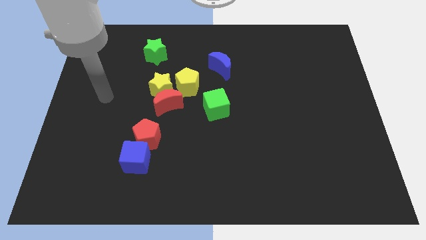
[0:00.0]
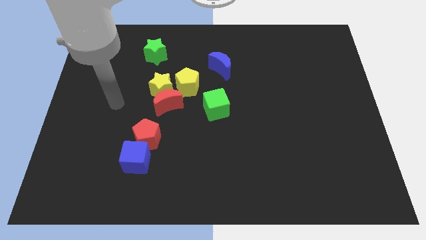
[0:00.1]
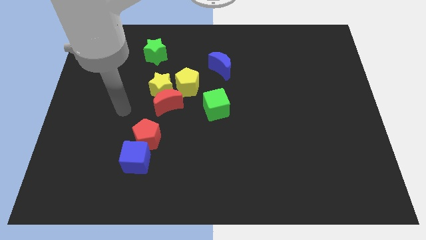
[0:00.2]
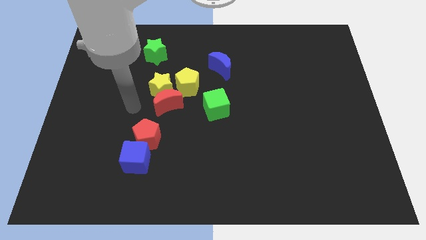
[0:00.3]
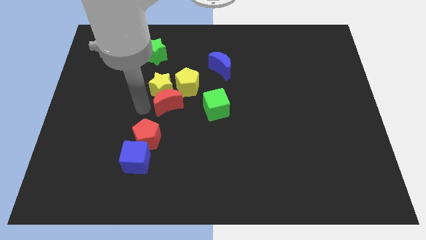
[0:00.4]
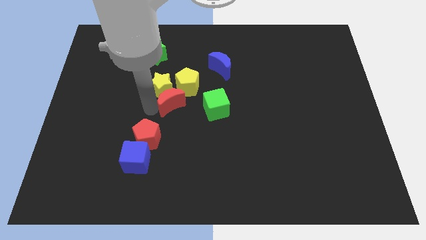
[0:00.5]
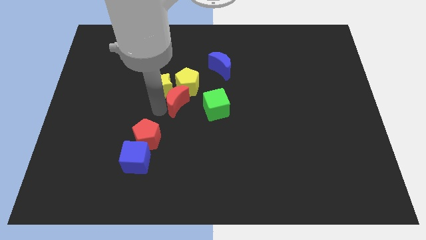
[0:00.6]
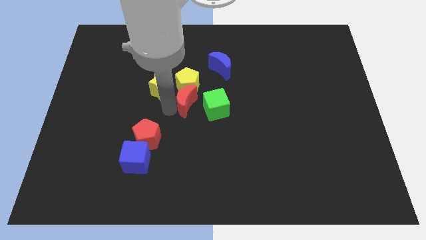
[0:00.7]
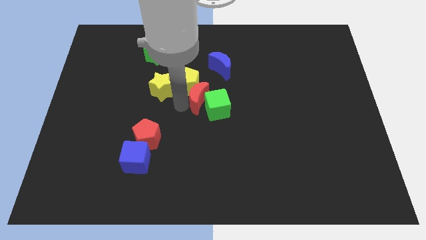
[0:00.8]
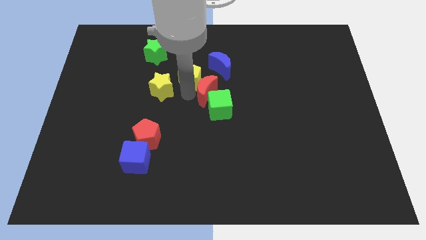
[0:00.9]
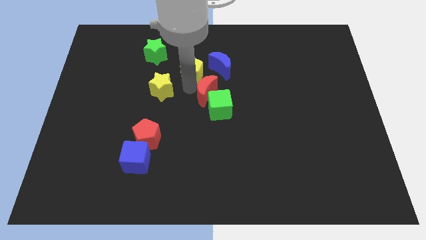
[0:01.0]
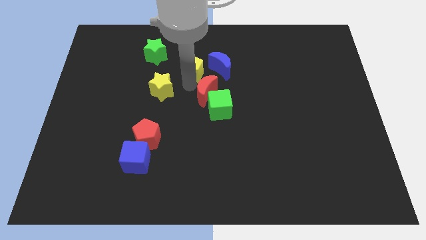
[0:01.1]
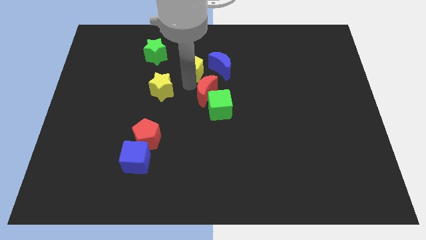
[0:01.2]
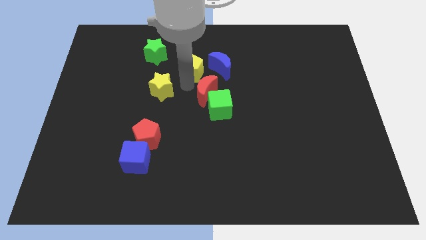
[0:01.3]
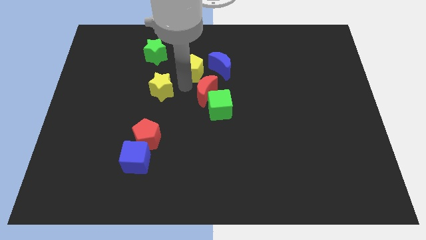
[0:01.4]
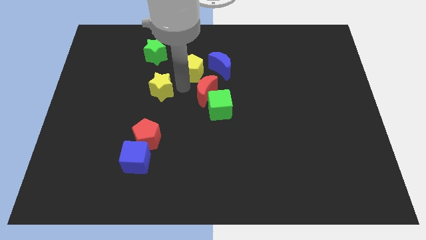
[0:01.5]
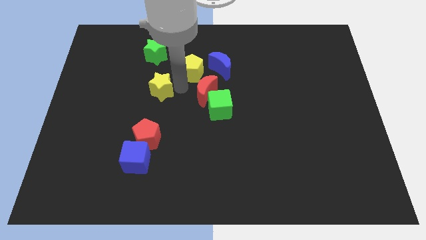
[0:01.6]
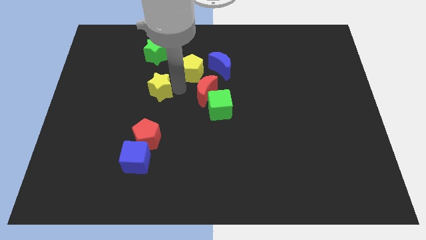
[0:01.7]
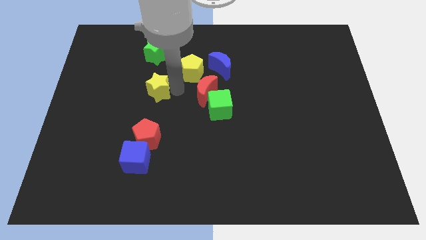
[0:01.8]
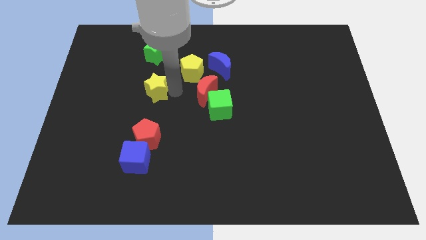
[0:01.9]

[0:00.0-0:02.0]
move the yellow star away from the red moon and yellow pentagon

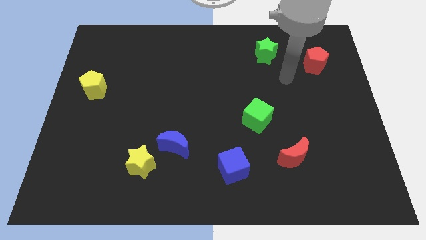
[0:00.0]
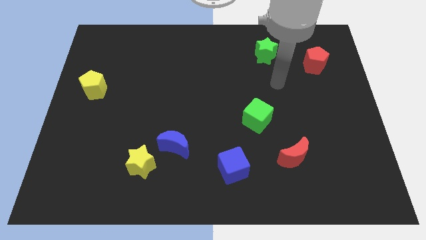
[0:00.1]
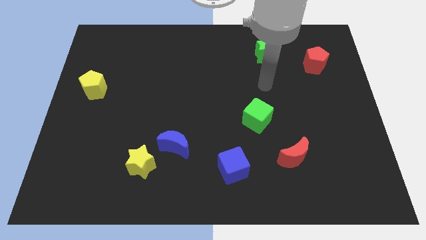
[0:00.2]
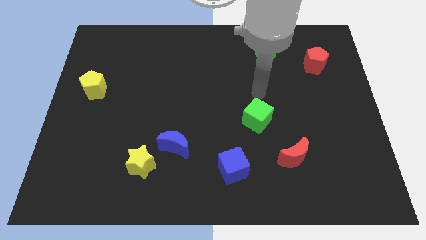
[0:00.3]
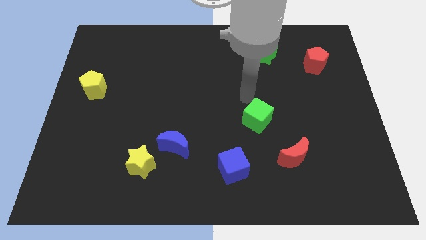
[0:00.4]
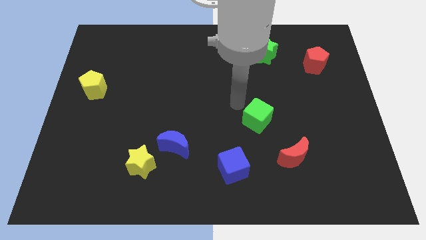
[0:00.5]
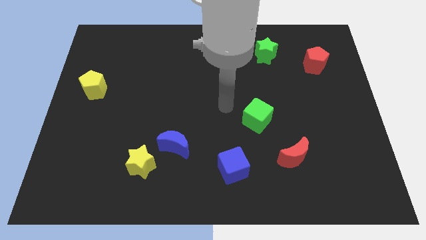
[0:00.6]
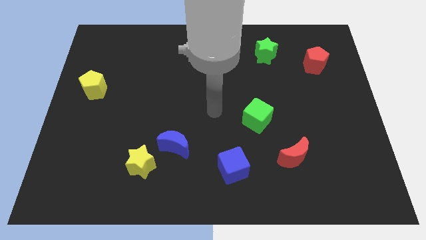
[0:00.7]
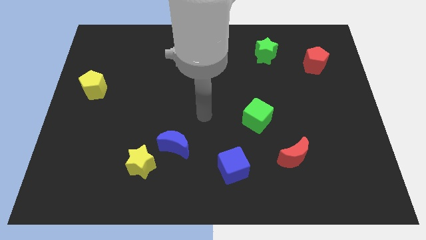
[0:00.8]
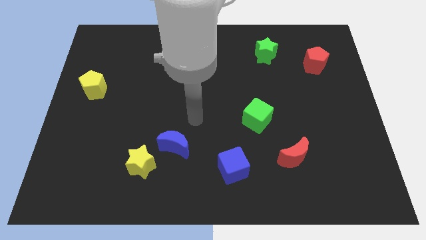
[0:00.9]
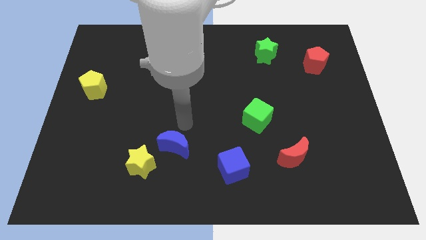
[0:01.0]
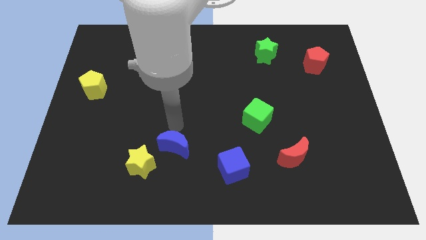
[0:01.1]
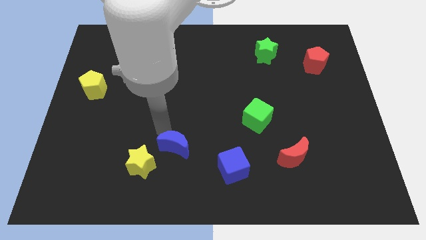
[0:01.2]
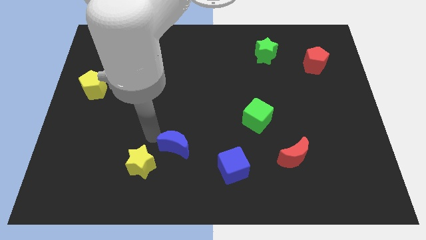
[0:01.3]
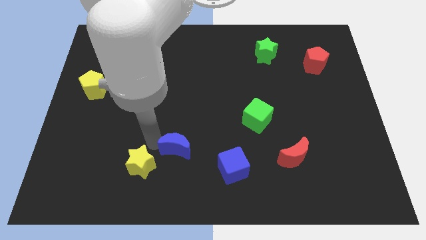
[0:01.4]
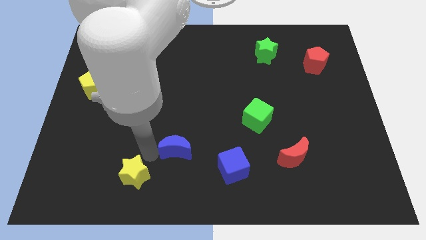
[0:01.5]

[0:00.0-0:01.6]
separate the blue moon from the yellow star

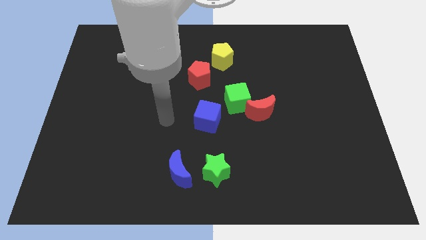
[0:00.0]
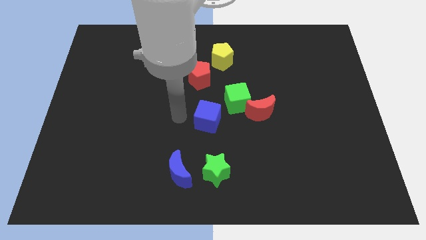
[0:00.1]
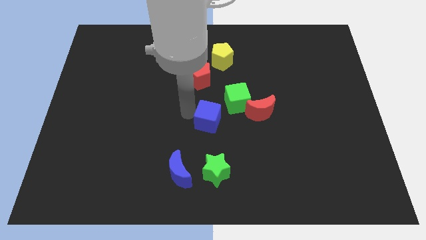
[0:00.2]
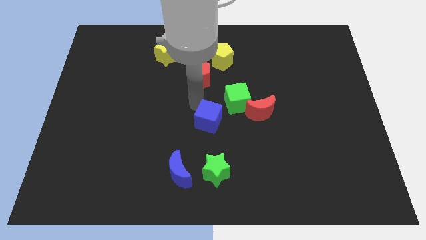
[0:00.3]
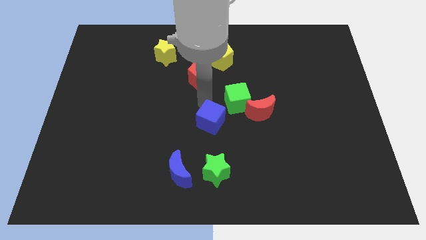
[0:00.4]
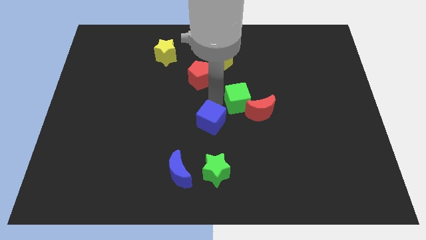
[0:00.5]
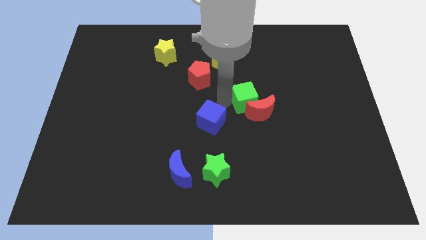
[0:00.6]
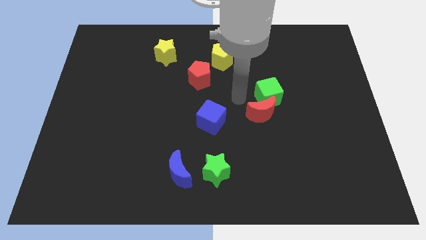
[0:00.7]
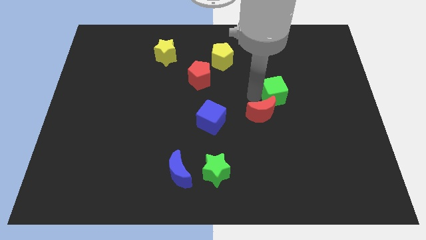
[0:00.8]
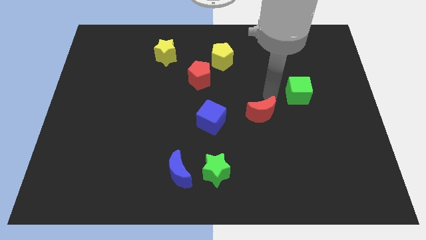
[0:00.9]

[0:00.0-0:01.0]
pull the red moon apart from the green cube

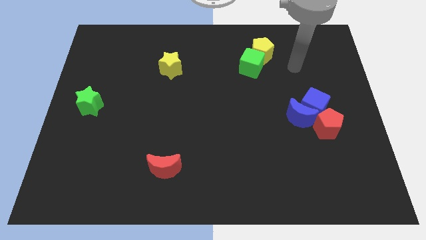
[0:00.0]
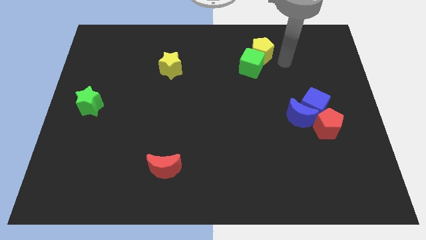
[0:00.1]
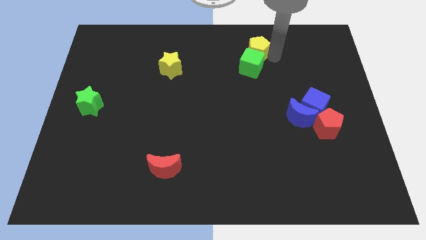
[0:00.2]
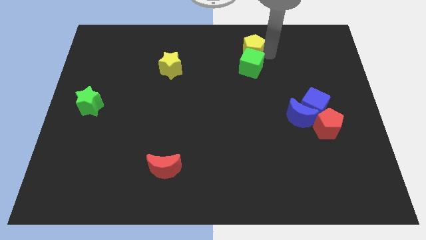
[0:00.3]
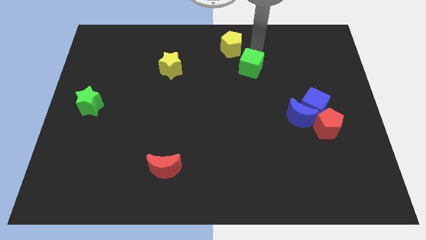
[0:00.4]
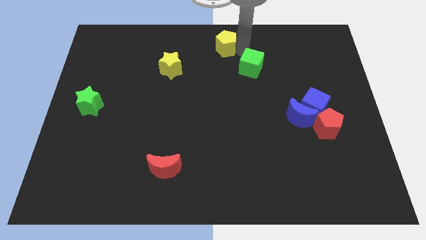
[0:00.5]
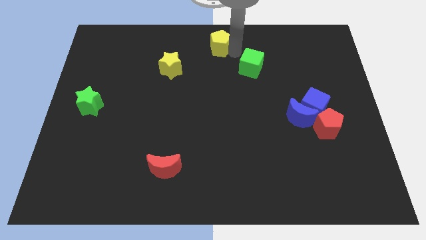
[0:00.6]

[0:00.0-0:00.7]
move the green cube away from the yellow pentagon

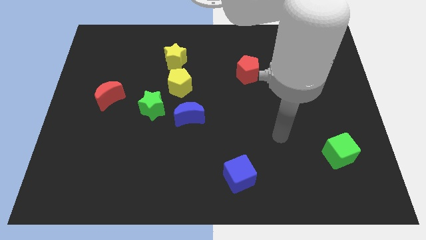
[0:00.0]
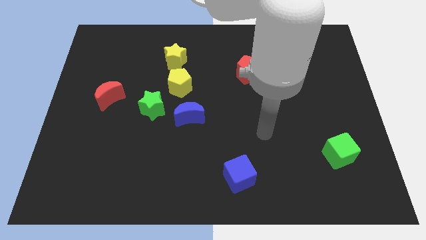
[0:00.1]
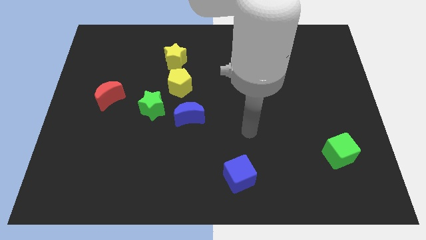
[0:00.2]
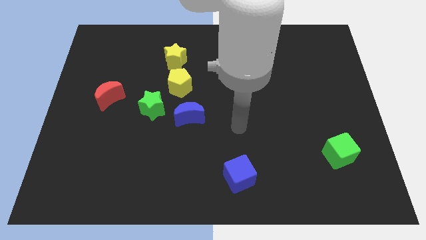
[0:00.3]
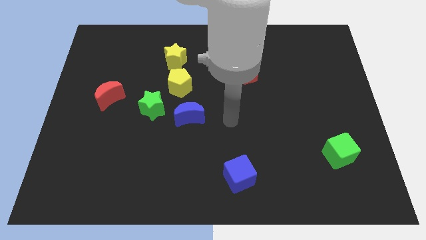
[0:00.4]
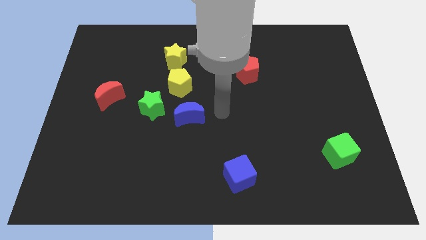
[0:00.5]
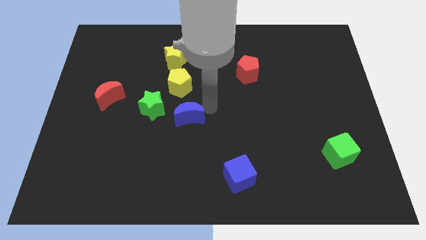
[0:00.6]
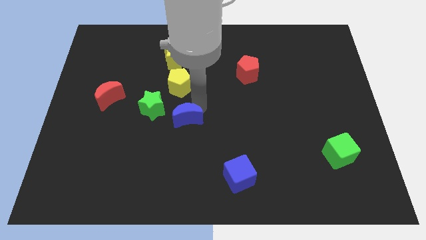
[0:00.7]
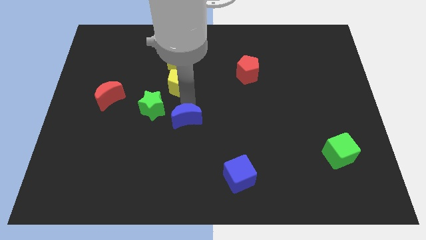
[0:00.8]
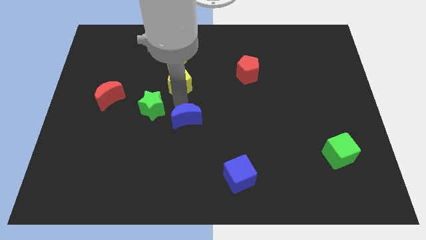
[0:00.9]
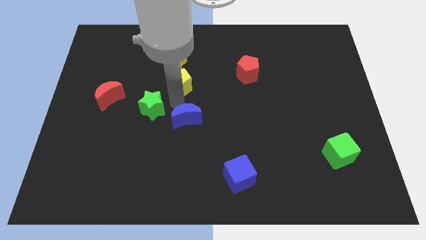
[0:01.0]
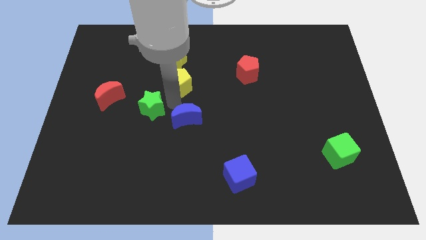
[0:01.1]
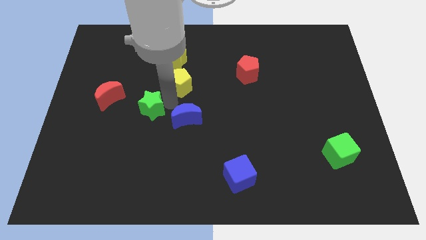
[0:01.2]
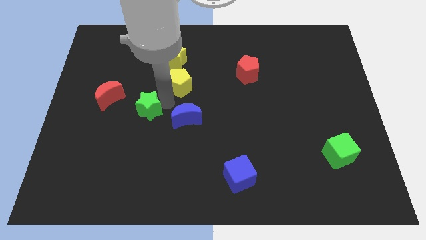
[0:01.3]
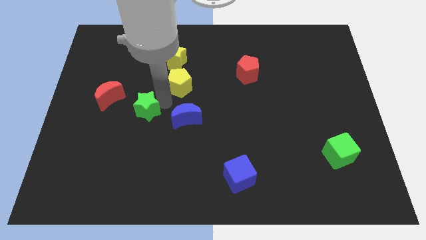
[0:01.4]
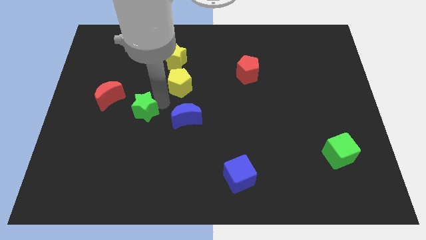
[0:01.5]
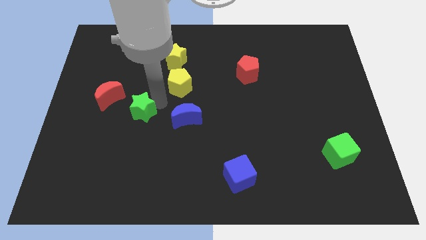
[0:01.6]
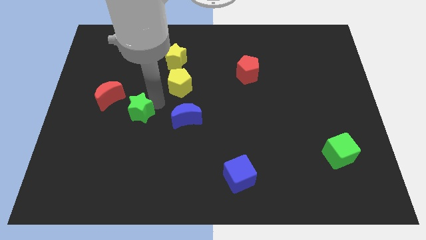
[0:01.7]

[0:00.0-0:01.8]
pull the green star apart from the blue moon and yellow pentagon

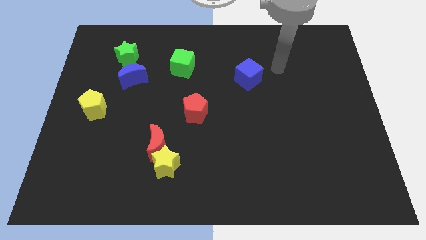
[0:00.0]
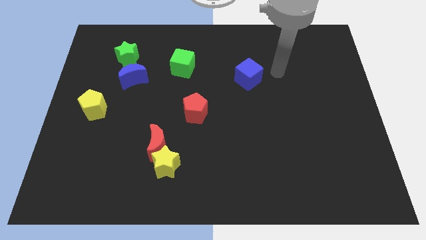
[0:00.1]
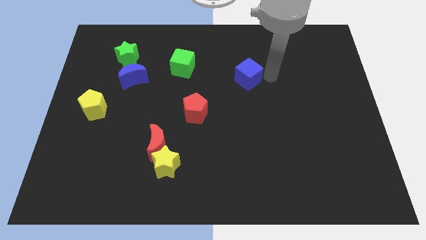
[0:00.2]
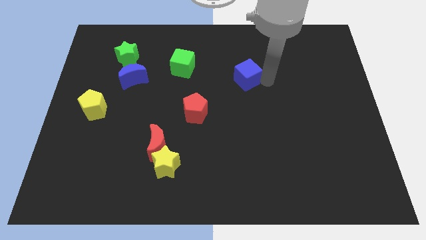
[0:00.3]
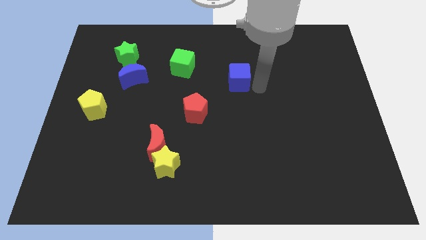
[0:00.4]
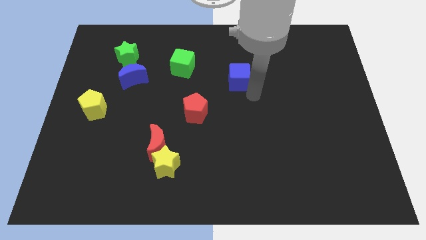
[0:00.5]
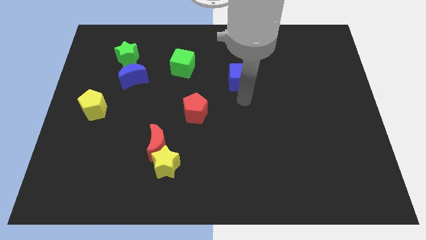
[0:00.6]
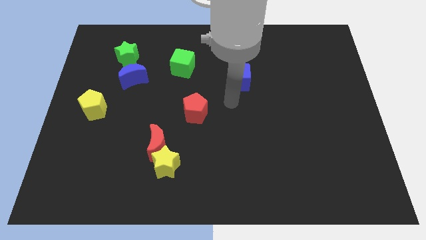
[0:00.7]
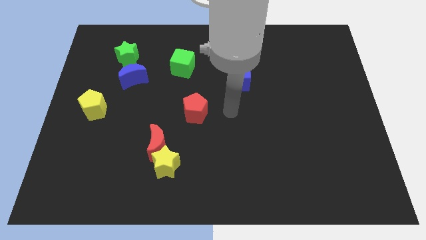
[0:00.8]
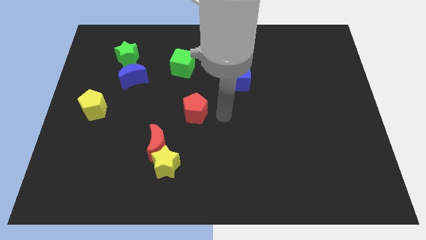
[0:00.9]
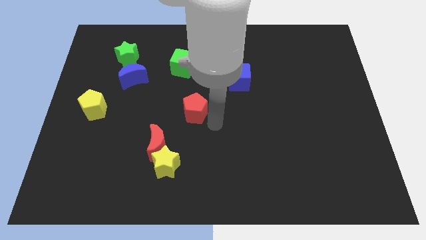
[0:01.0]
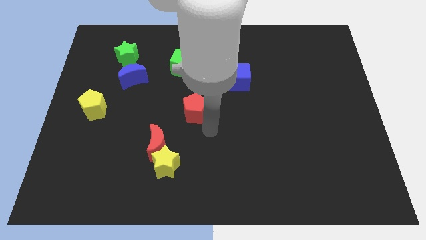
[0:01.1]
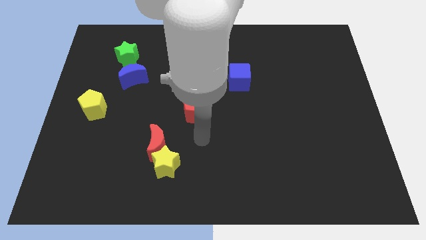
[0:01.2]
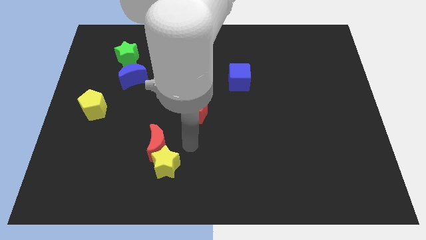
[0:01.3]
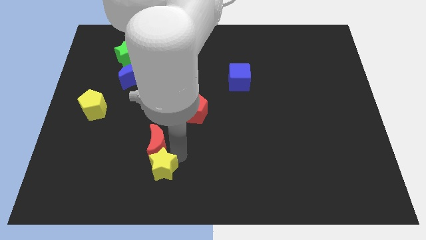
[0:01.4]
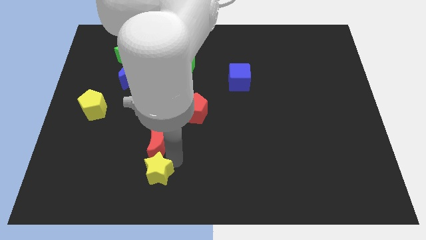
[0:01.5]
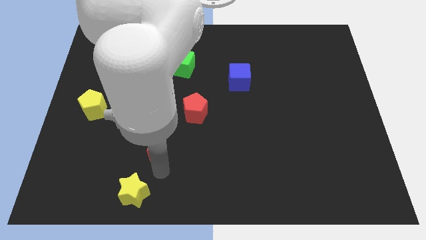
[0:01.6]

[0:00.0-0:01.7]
separate the red moon from the yellow star

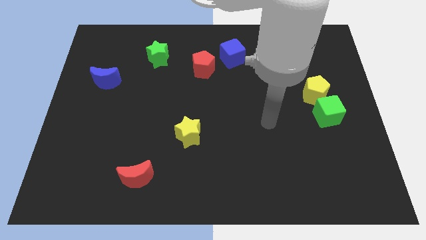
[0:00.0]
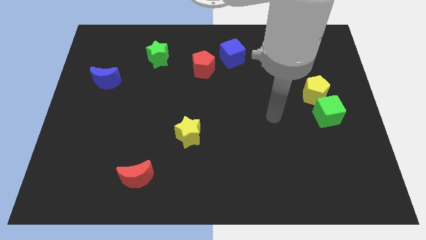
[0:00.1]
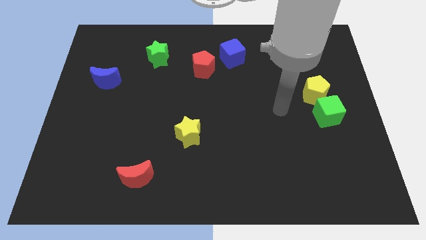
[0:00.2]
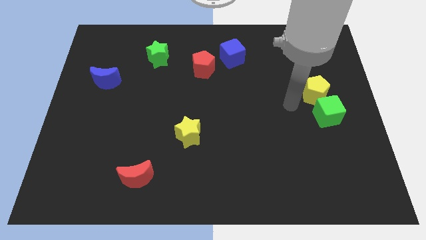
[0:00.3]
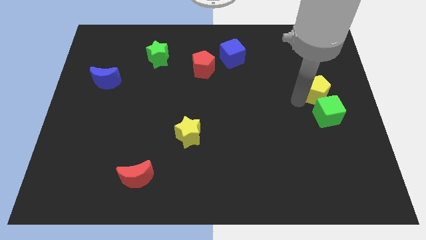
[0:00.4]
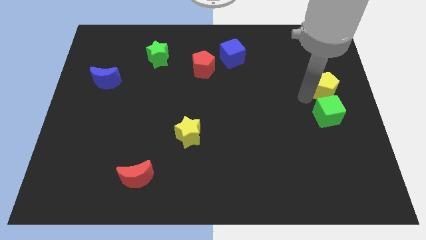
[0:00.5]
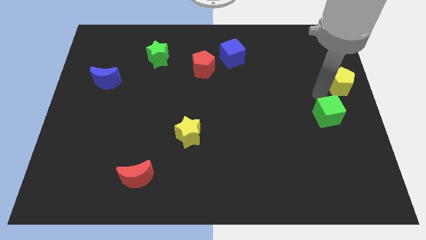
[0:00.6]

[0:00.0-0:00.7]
separate the green cube from the yellow pentagon
